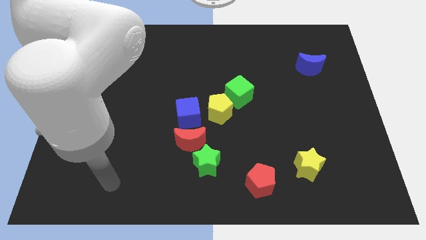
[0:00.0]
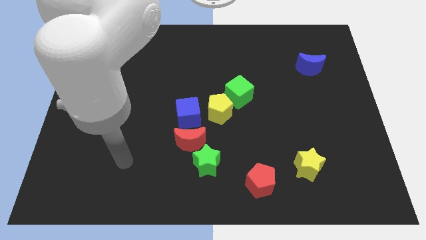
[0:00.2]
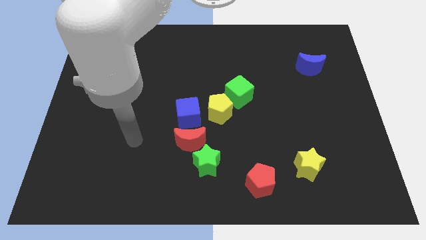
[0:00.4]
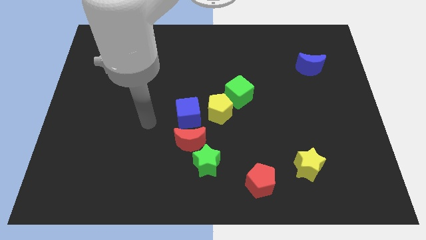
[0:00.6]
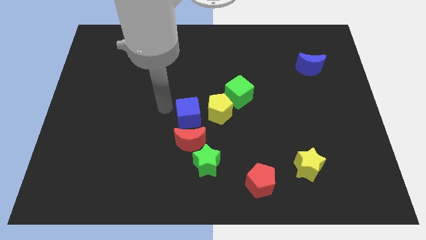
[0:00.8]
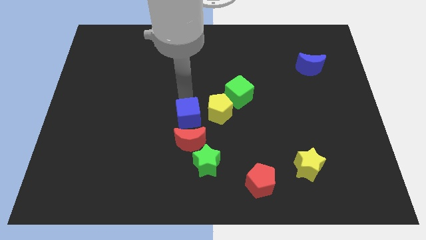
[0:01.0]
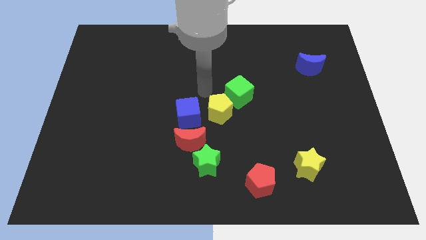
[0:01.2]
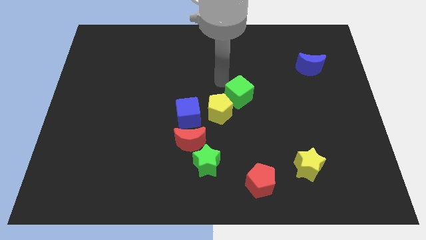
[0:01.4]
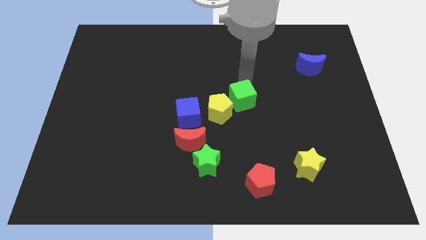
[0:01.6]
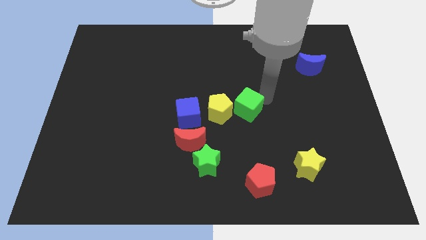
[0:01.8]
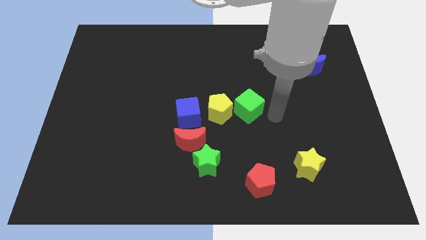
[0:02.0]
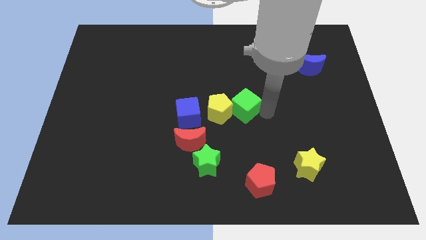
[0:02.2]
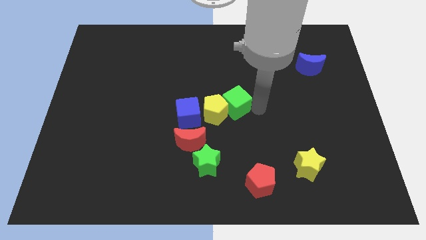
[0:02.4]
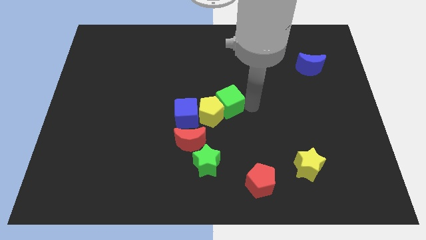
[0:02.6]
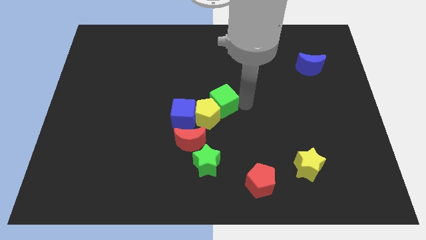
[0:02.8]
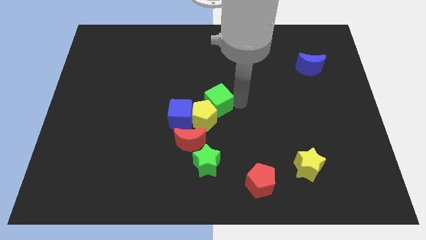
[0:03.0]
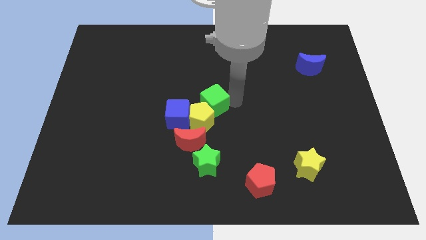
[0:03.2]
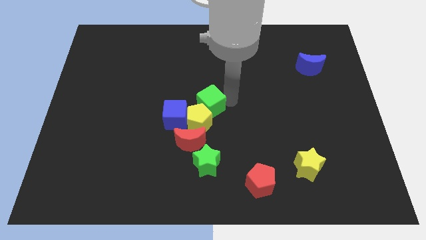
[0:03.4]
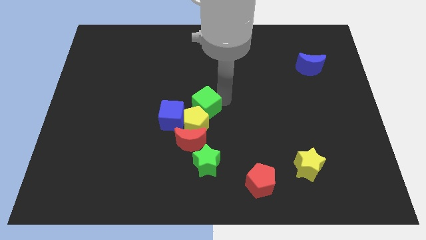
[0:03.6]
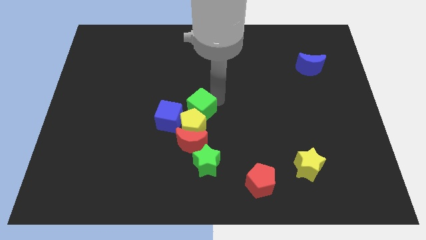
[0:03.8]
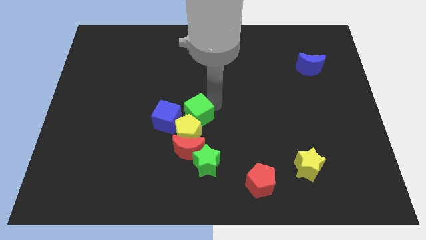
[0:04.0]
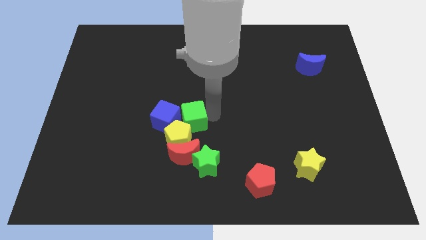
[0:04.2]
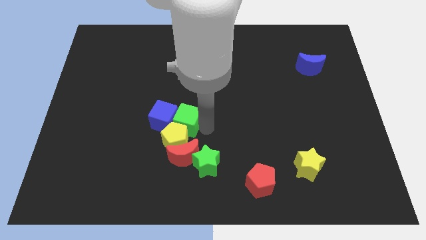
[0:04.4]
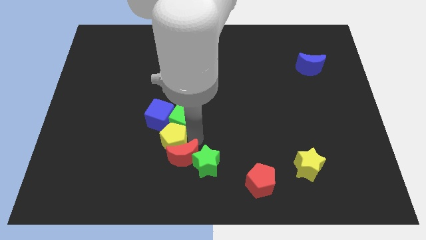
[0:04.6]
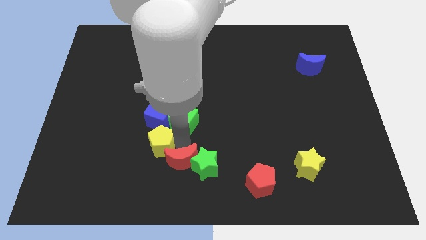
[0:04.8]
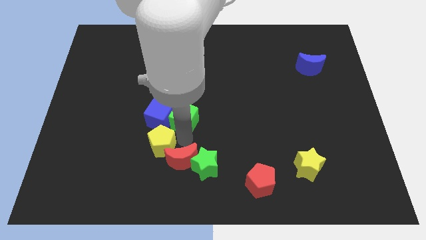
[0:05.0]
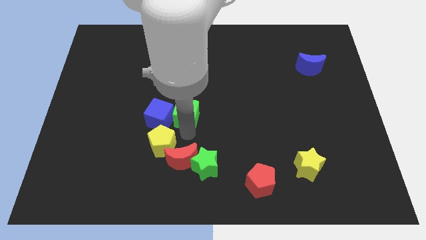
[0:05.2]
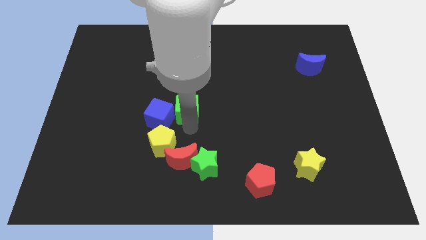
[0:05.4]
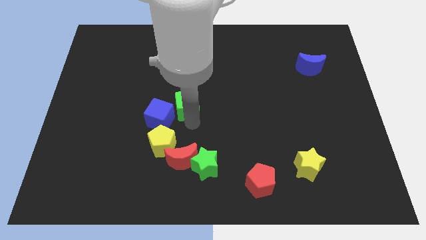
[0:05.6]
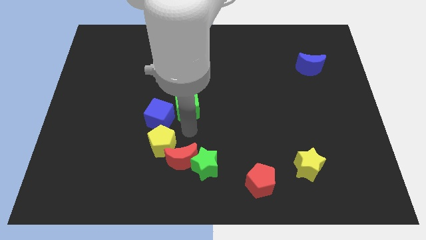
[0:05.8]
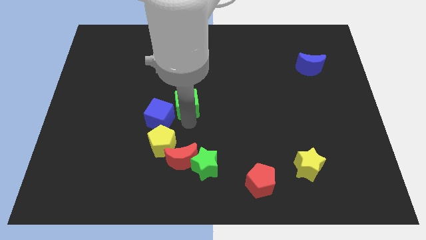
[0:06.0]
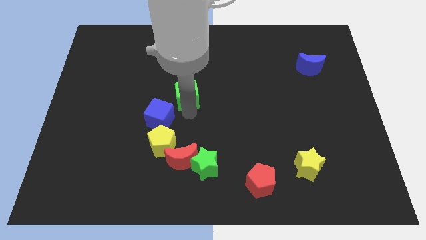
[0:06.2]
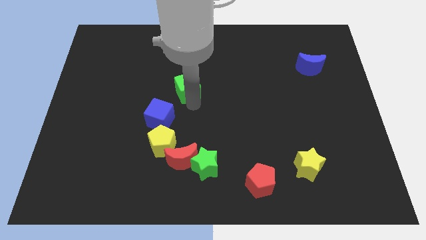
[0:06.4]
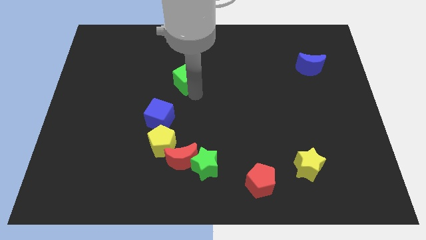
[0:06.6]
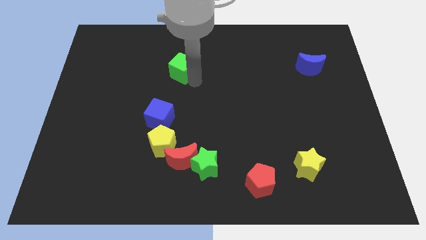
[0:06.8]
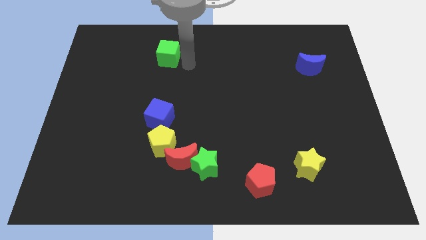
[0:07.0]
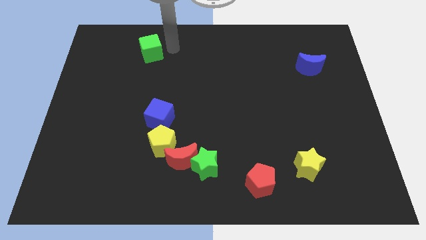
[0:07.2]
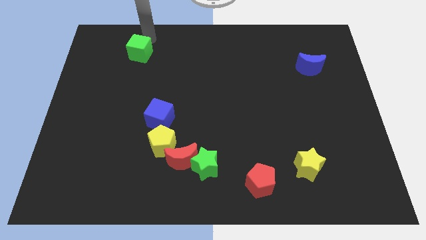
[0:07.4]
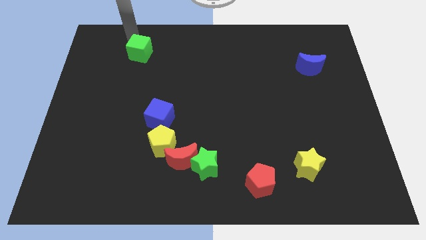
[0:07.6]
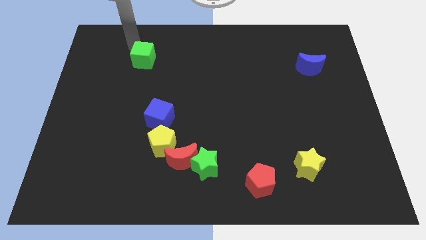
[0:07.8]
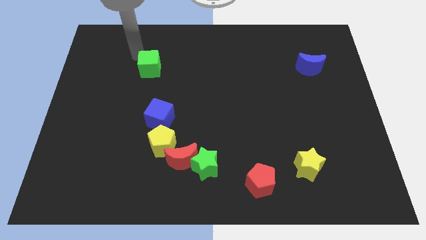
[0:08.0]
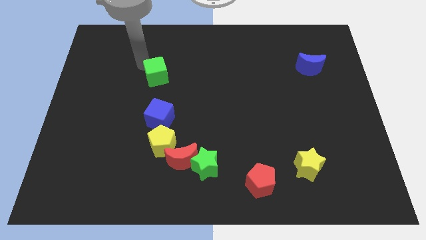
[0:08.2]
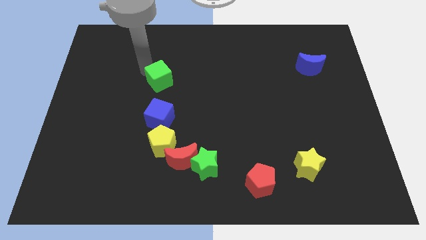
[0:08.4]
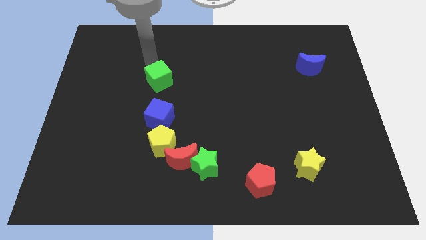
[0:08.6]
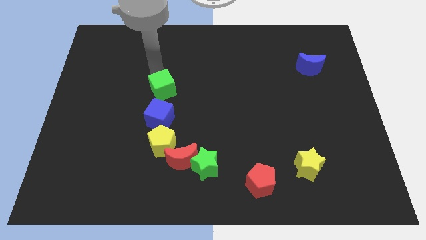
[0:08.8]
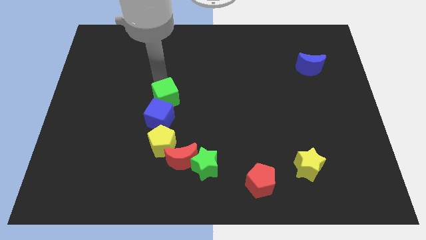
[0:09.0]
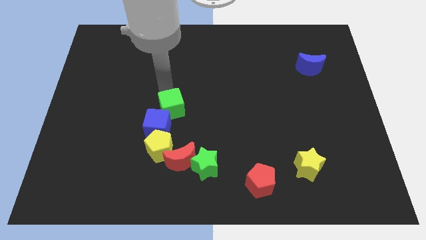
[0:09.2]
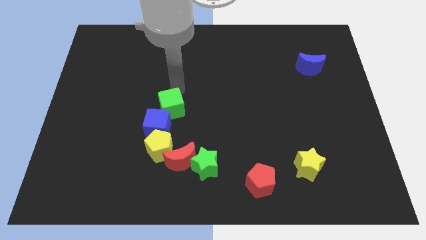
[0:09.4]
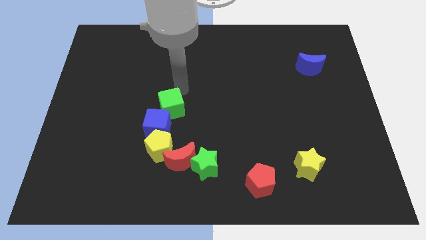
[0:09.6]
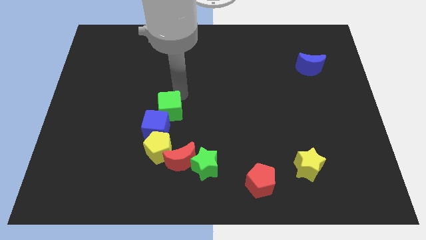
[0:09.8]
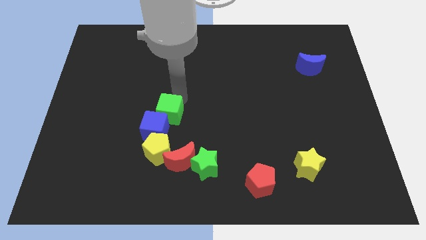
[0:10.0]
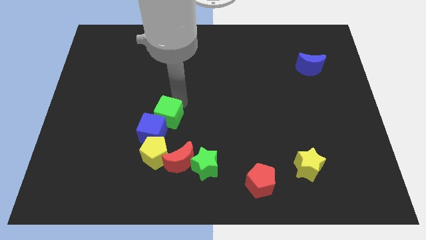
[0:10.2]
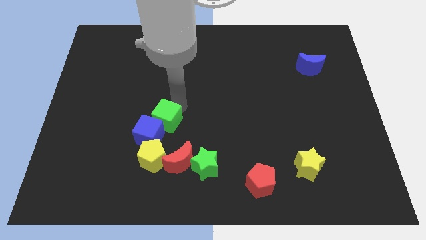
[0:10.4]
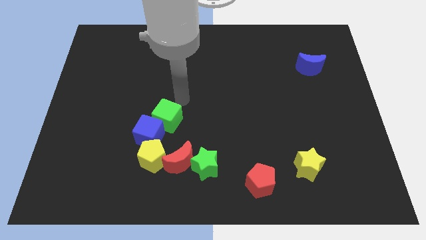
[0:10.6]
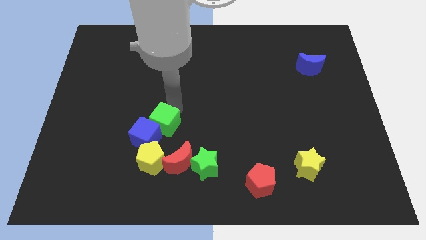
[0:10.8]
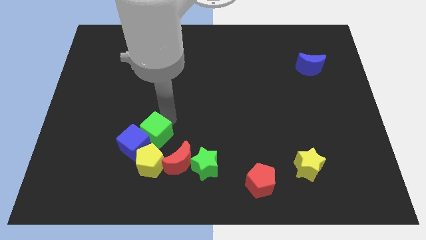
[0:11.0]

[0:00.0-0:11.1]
slide the green cube diagonally downwards and left

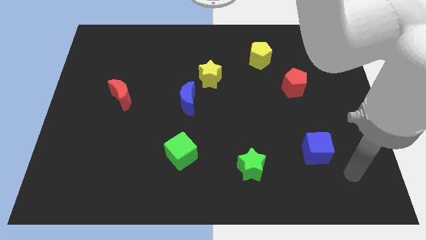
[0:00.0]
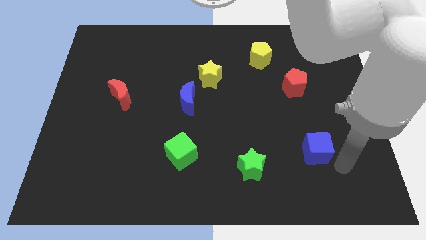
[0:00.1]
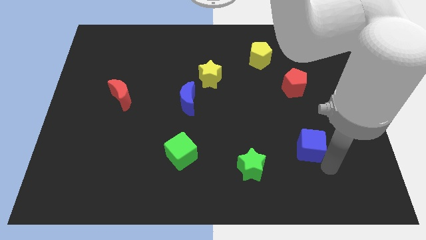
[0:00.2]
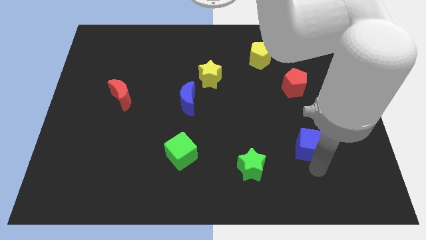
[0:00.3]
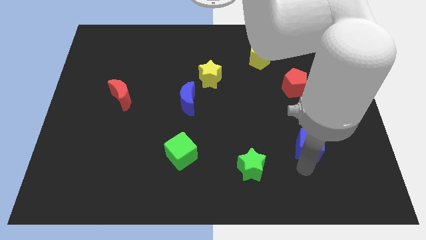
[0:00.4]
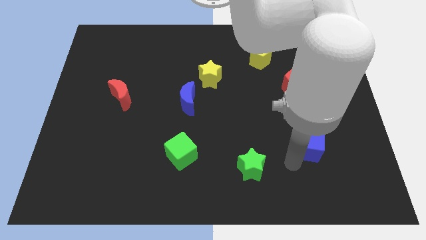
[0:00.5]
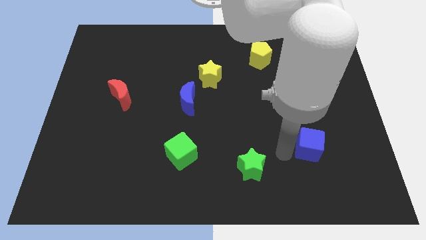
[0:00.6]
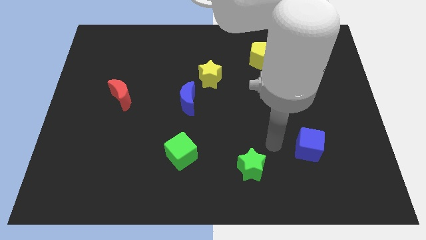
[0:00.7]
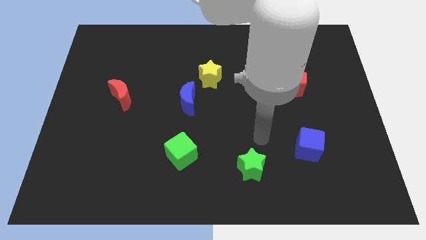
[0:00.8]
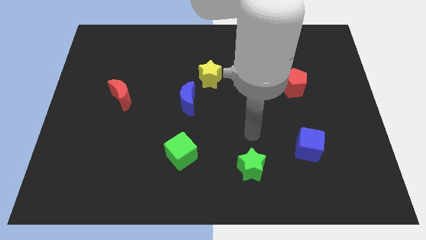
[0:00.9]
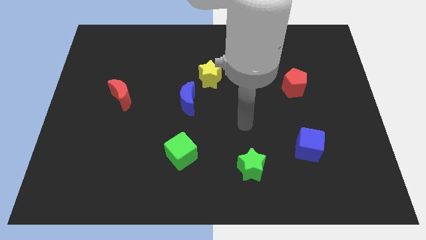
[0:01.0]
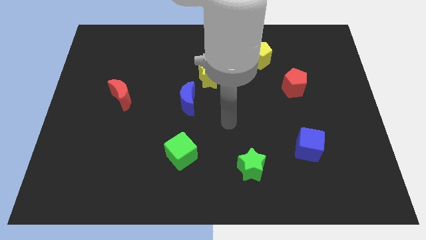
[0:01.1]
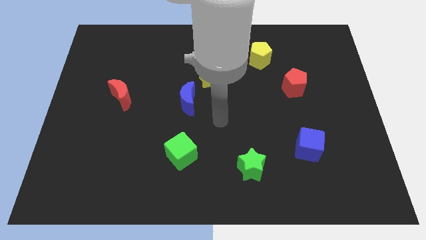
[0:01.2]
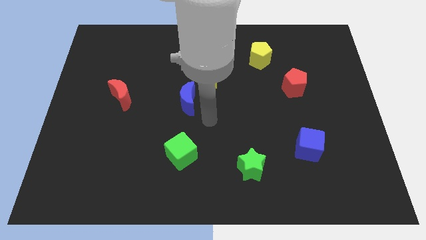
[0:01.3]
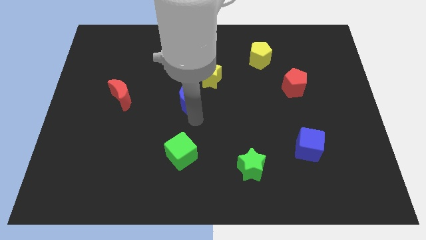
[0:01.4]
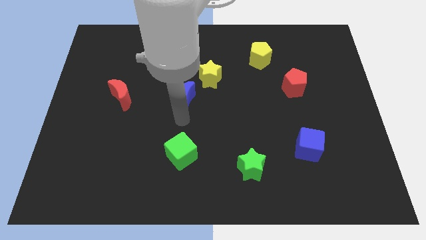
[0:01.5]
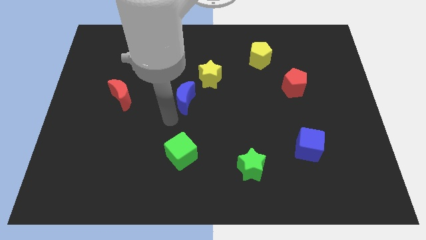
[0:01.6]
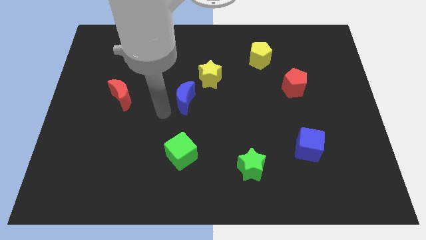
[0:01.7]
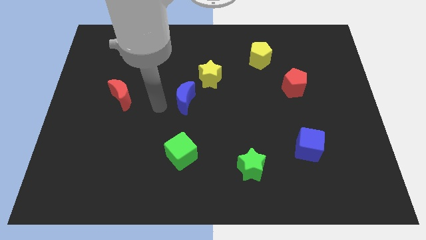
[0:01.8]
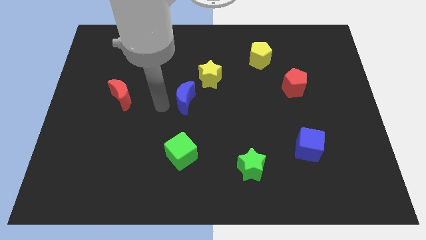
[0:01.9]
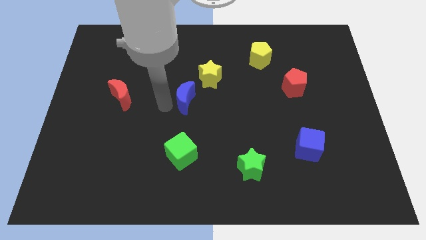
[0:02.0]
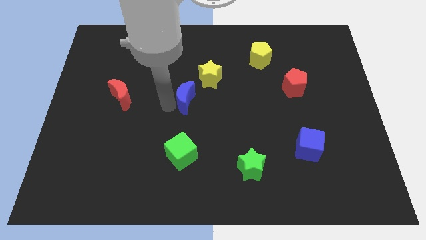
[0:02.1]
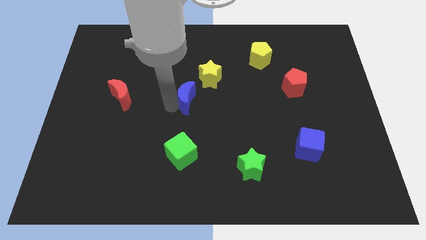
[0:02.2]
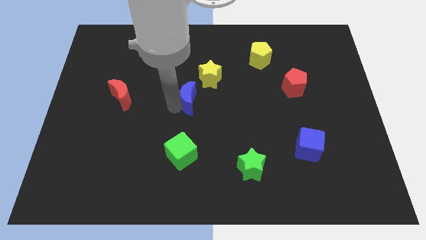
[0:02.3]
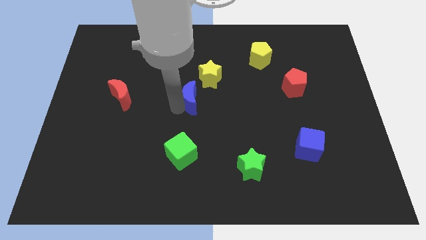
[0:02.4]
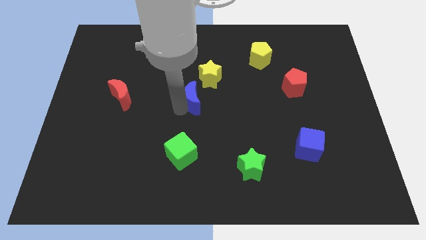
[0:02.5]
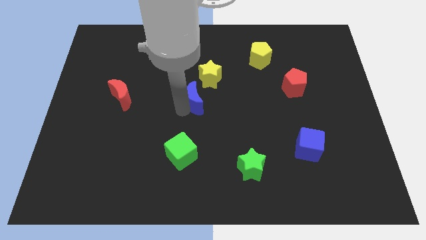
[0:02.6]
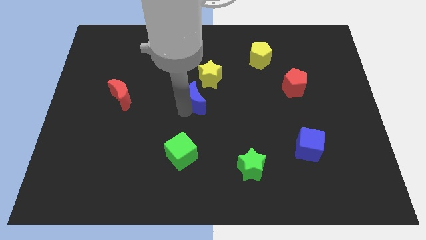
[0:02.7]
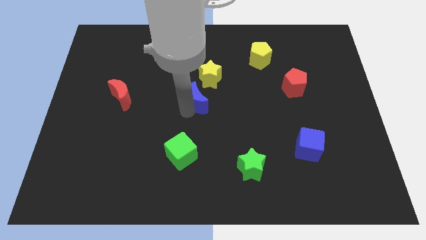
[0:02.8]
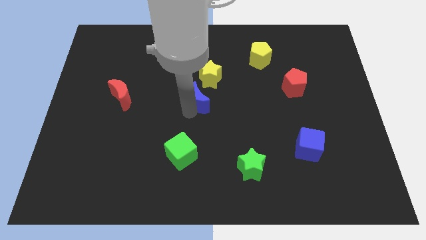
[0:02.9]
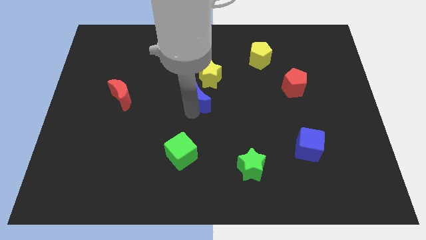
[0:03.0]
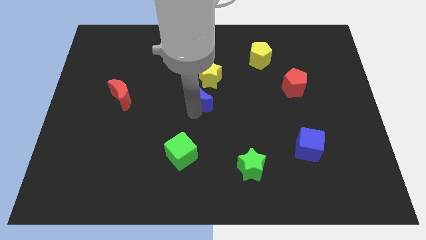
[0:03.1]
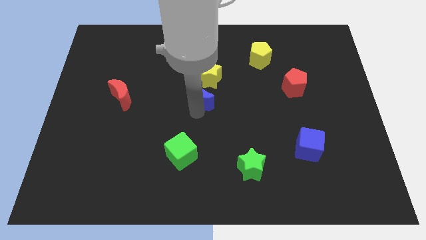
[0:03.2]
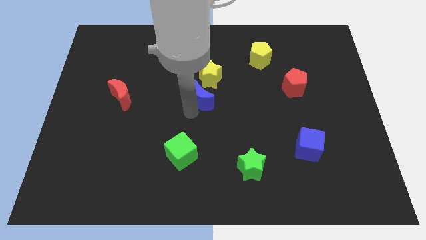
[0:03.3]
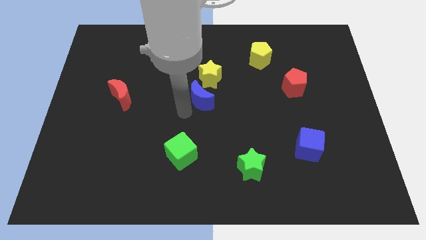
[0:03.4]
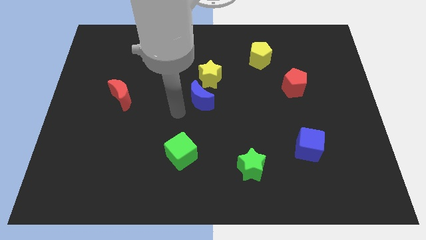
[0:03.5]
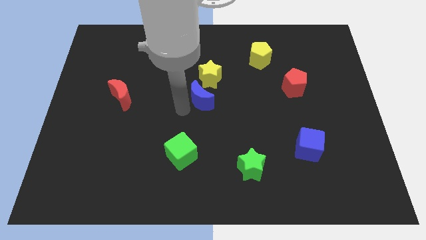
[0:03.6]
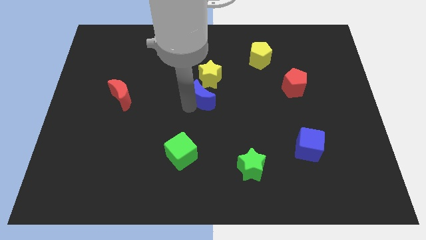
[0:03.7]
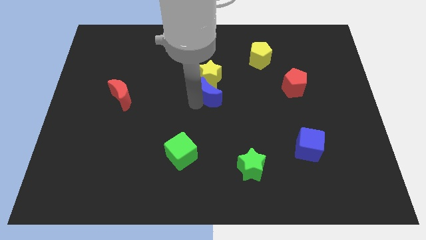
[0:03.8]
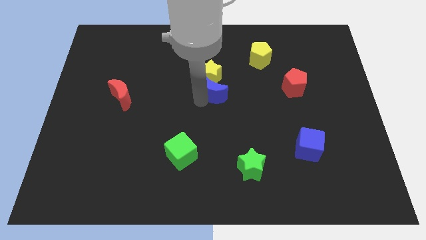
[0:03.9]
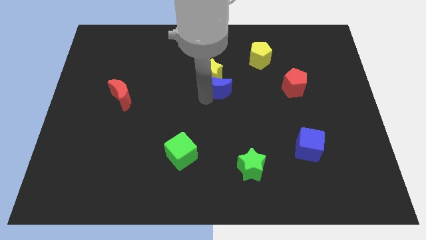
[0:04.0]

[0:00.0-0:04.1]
slide the blue moon a little bit upwards and to the right diagonally
